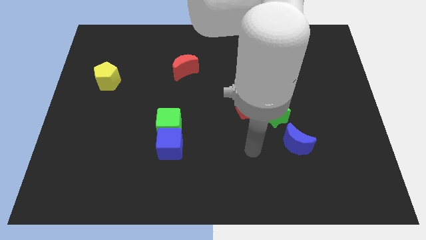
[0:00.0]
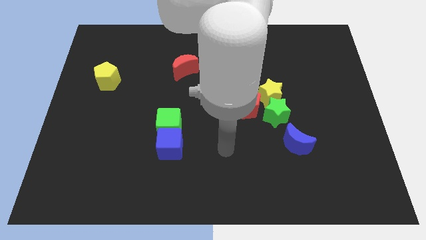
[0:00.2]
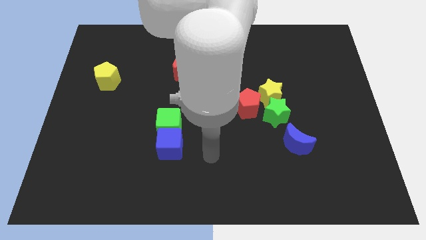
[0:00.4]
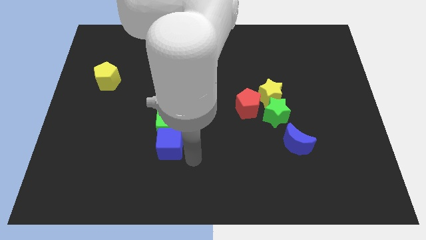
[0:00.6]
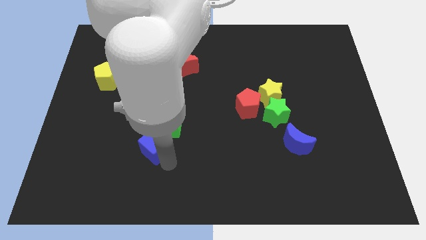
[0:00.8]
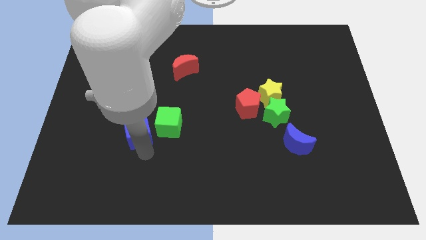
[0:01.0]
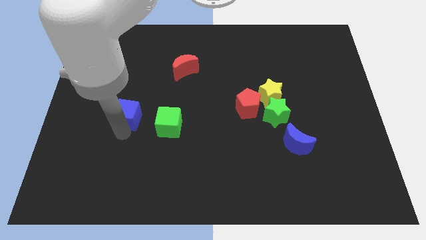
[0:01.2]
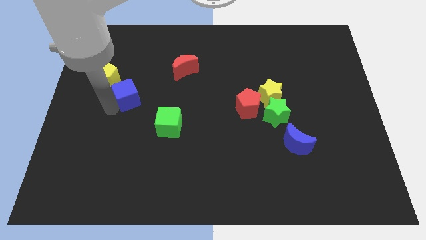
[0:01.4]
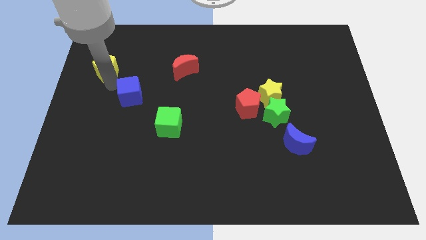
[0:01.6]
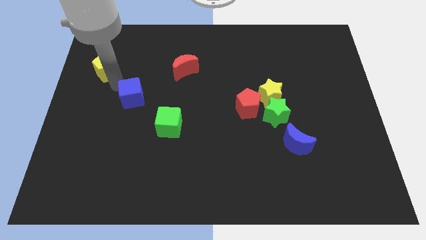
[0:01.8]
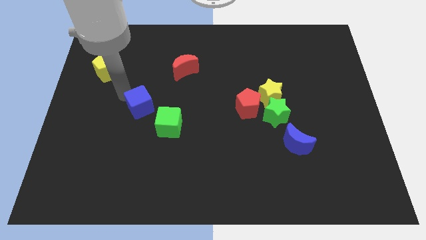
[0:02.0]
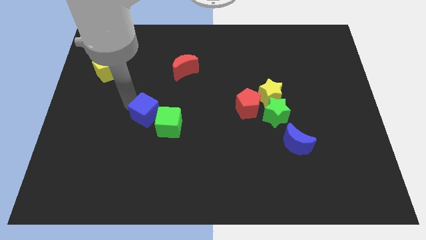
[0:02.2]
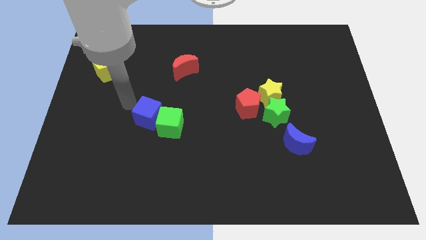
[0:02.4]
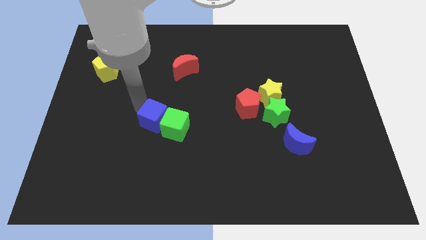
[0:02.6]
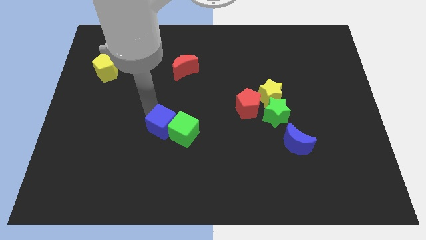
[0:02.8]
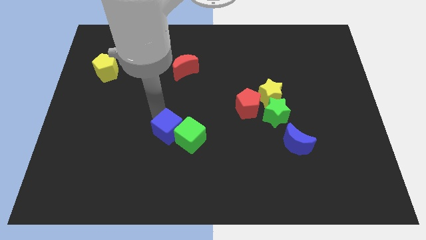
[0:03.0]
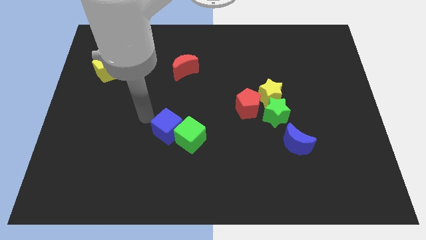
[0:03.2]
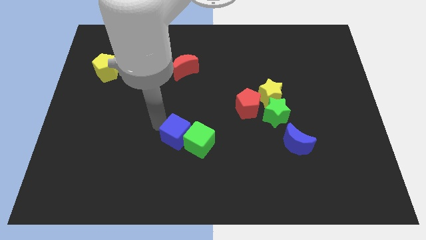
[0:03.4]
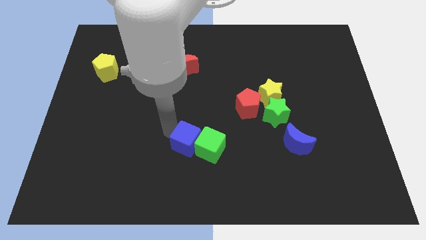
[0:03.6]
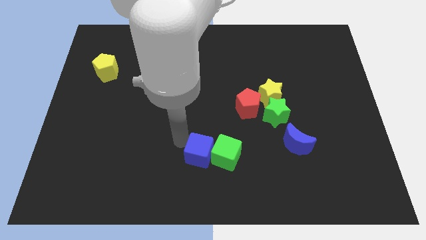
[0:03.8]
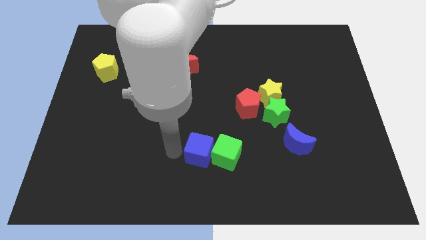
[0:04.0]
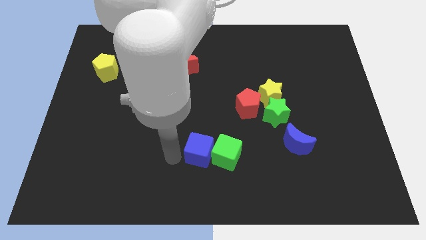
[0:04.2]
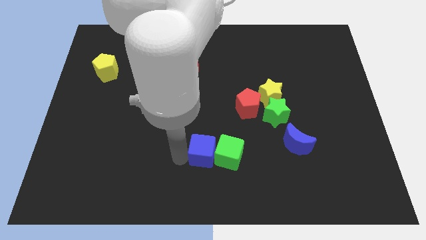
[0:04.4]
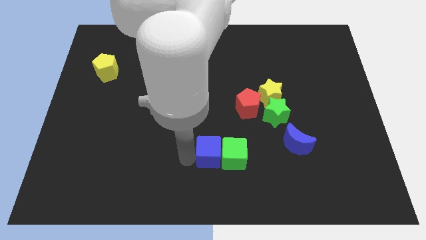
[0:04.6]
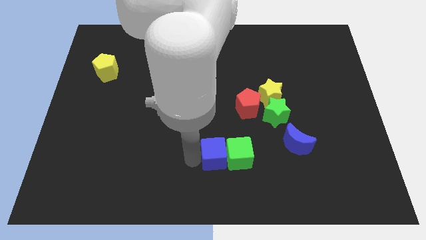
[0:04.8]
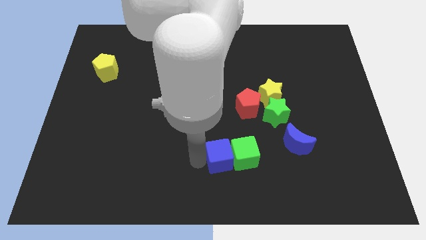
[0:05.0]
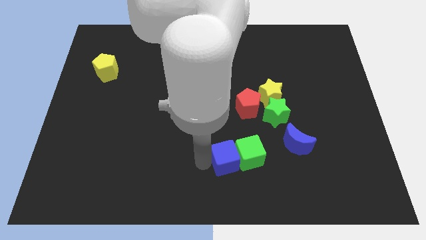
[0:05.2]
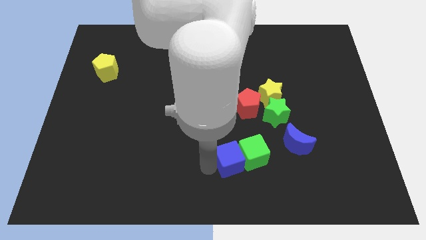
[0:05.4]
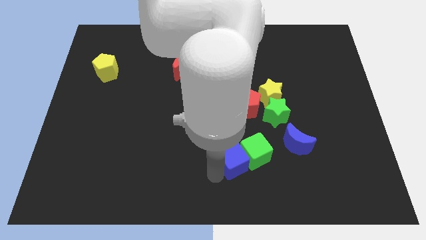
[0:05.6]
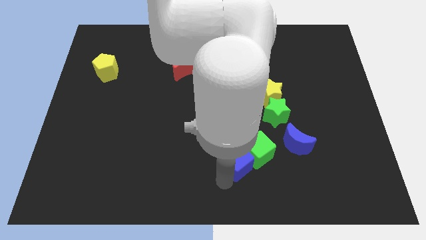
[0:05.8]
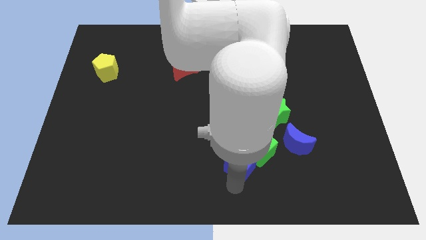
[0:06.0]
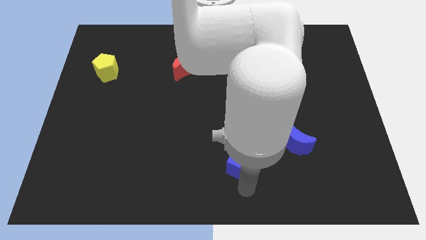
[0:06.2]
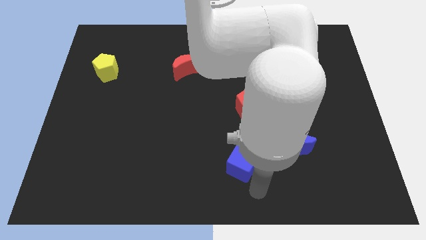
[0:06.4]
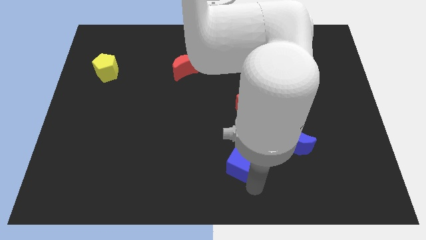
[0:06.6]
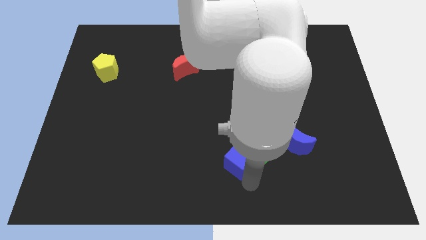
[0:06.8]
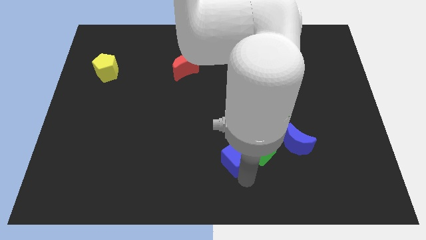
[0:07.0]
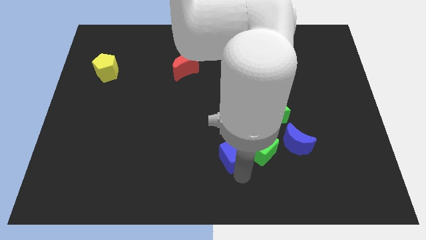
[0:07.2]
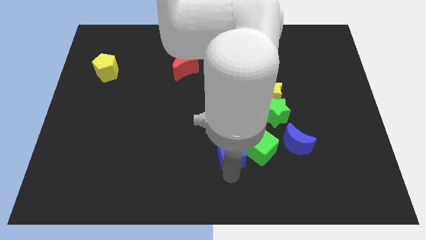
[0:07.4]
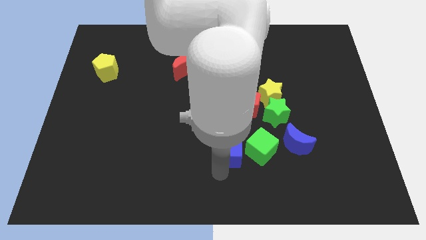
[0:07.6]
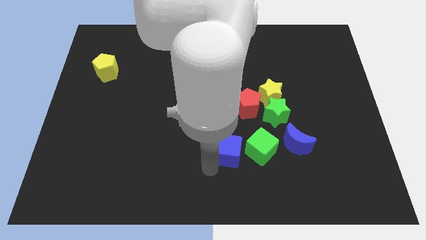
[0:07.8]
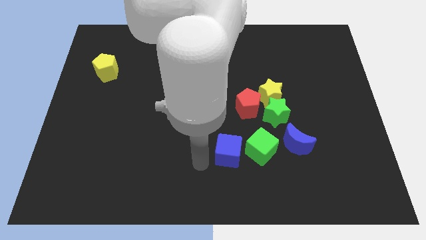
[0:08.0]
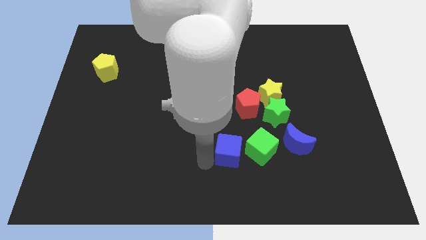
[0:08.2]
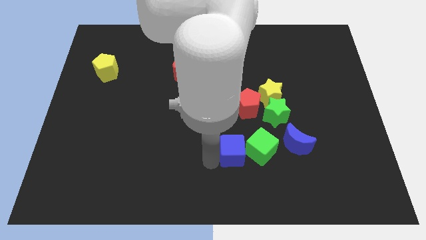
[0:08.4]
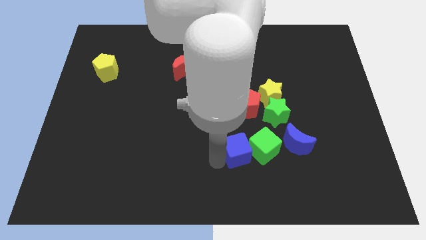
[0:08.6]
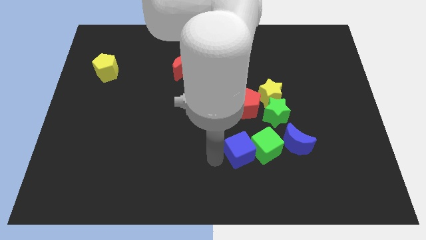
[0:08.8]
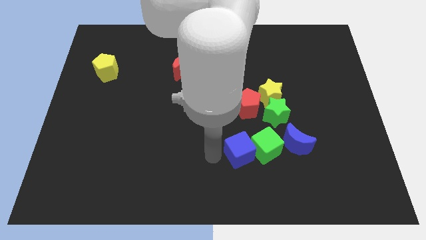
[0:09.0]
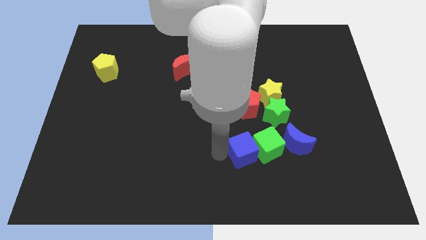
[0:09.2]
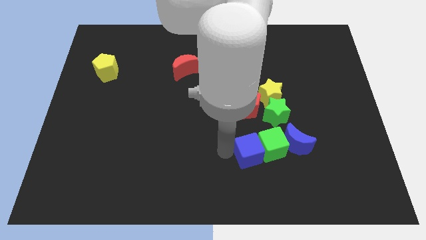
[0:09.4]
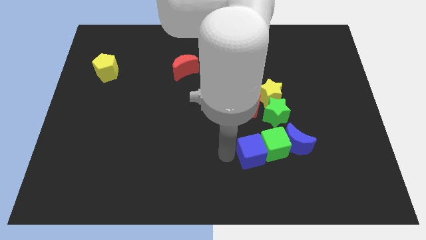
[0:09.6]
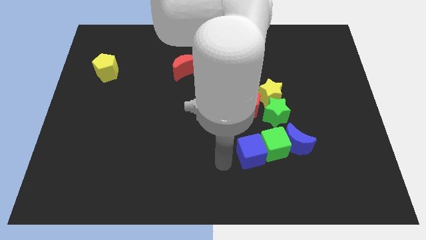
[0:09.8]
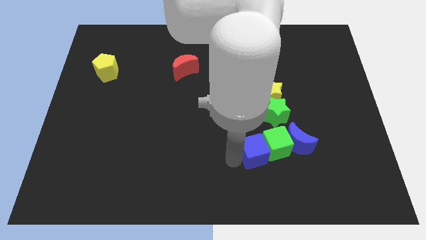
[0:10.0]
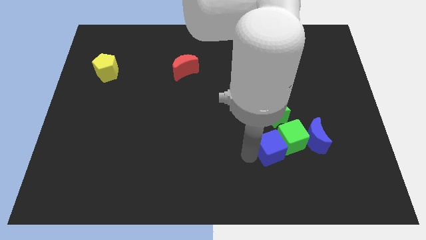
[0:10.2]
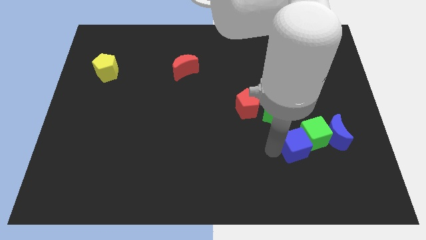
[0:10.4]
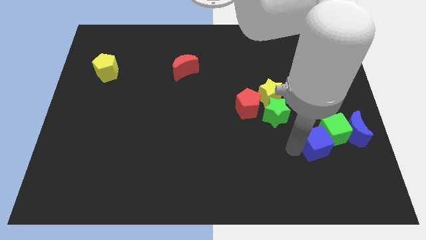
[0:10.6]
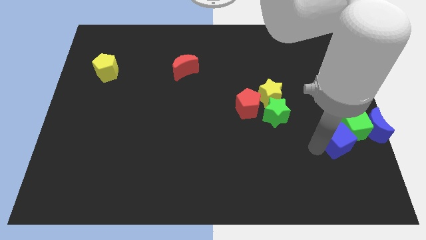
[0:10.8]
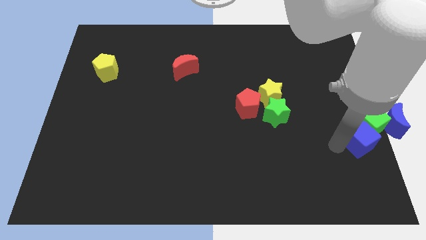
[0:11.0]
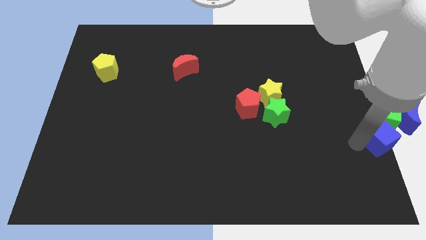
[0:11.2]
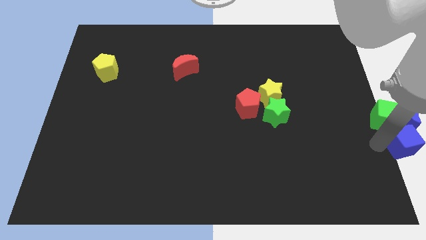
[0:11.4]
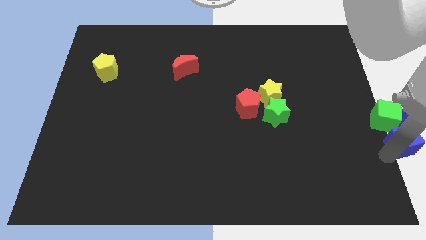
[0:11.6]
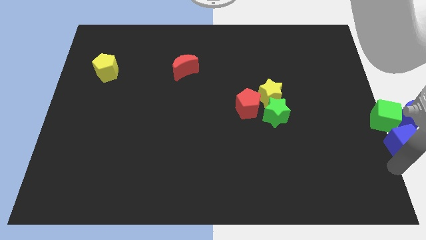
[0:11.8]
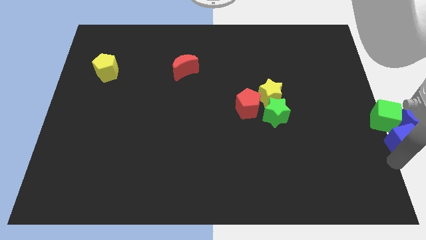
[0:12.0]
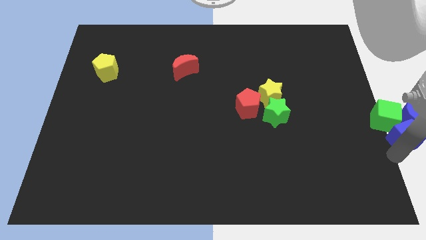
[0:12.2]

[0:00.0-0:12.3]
put the blue cube close to the blue moon

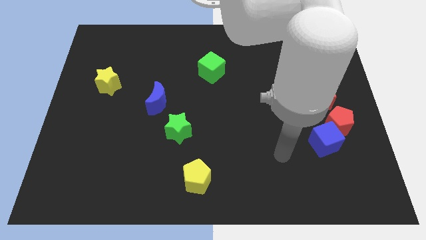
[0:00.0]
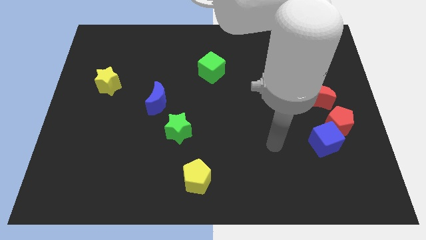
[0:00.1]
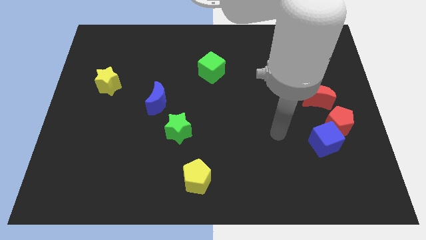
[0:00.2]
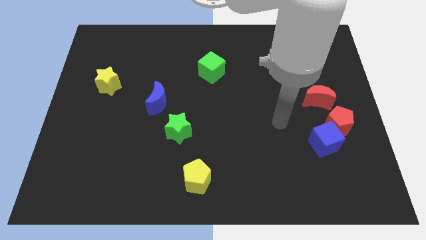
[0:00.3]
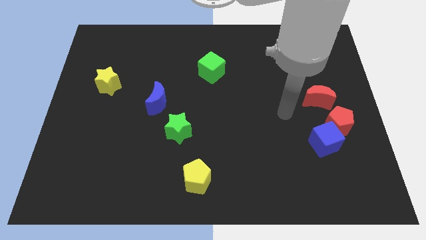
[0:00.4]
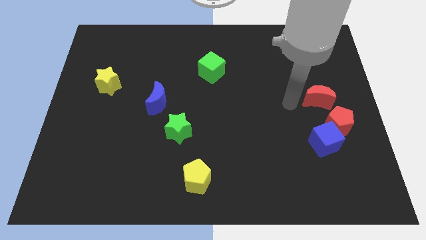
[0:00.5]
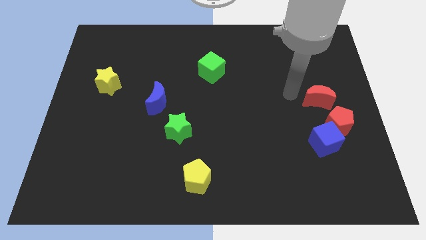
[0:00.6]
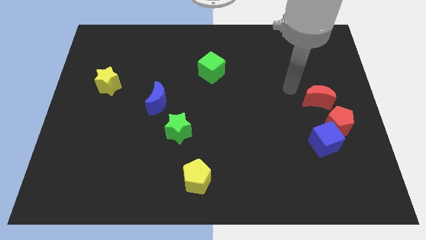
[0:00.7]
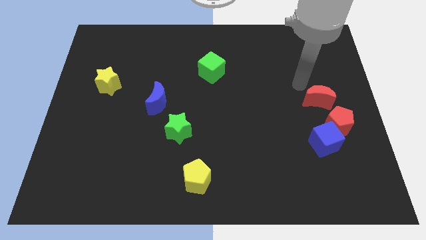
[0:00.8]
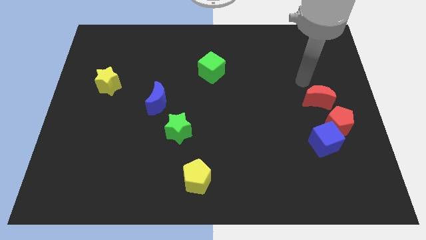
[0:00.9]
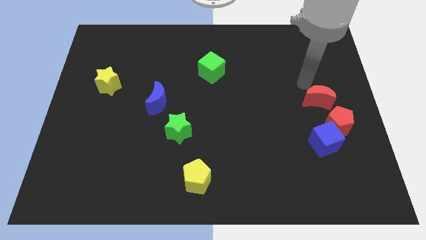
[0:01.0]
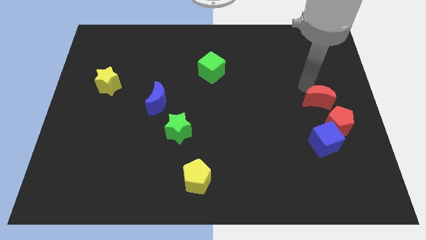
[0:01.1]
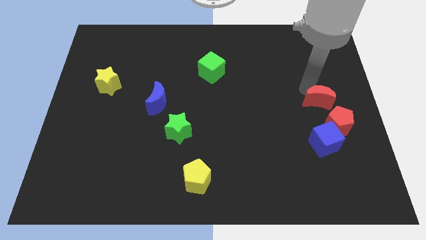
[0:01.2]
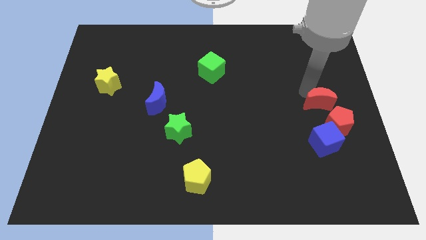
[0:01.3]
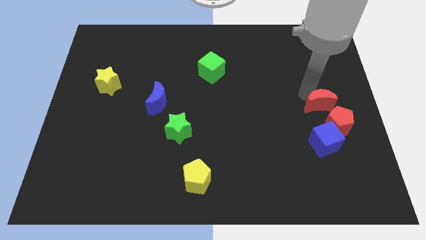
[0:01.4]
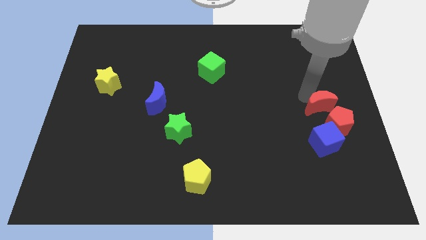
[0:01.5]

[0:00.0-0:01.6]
move the red moon next to the red pentagon
